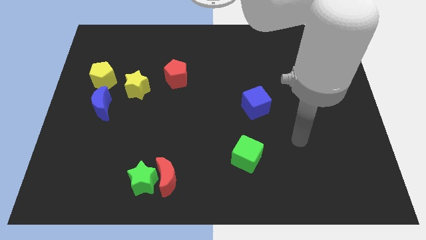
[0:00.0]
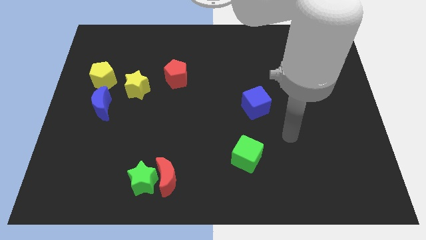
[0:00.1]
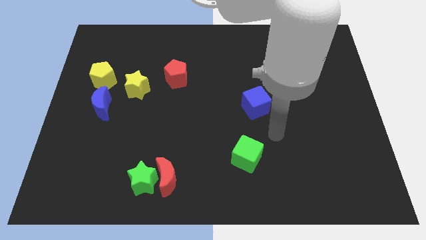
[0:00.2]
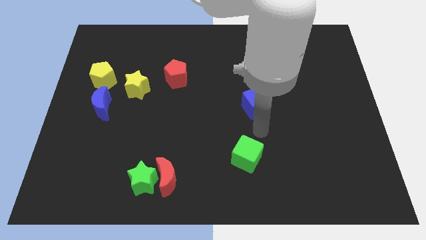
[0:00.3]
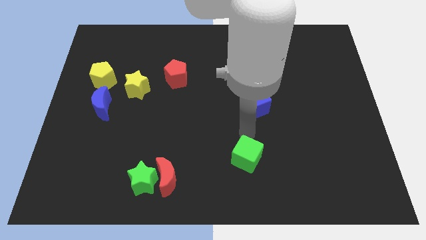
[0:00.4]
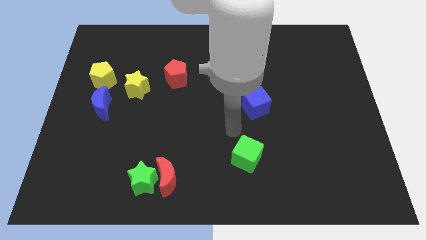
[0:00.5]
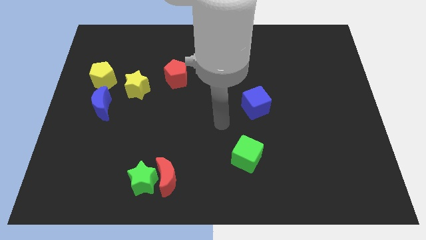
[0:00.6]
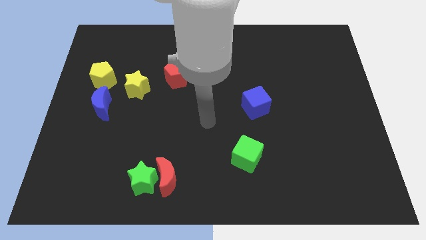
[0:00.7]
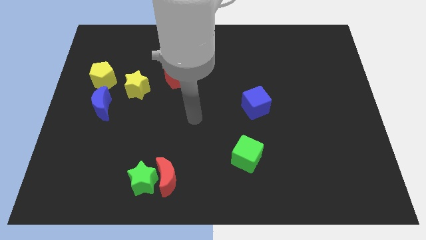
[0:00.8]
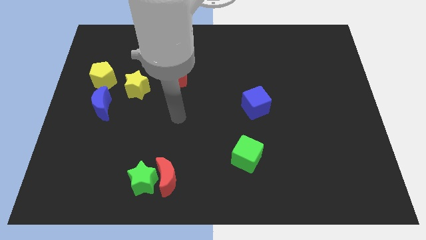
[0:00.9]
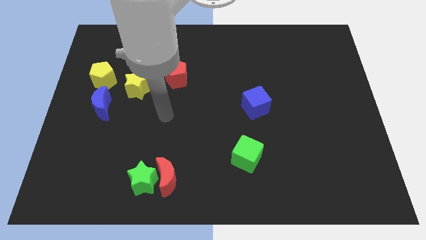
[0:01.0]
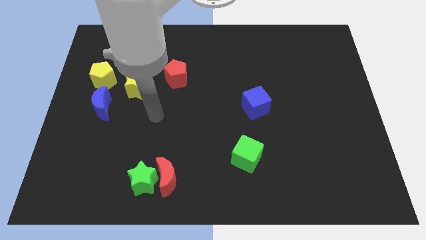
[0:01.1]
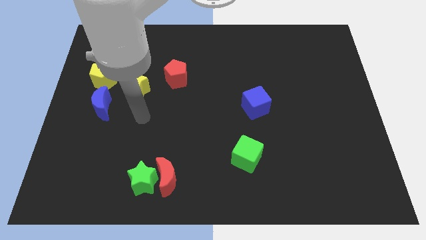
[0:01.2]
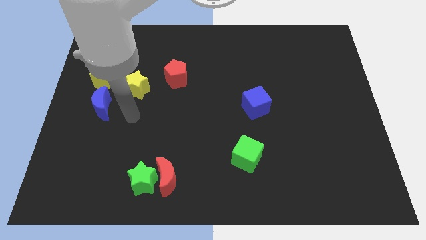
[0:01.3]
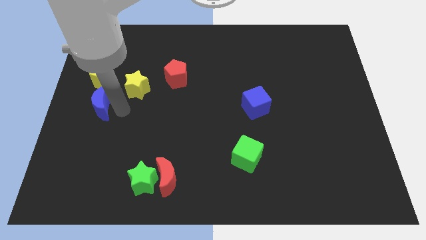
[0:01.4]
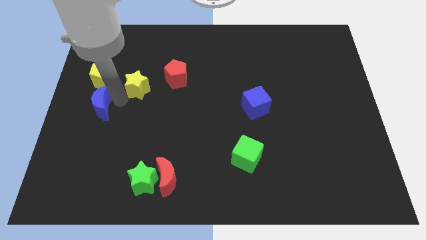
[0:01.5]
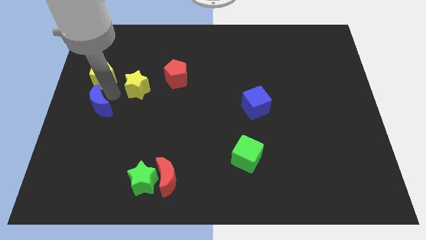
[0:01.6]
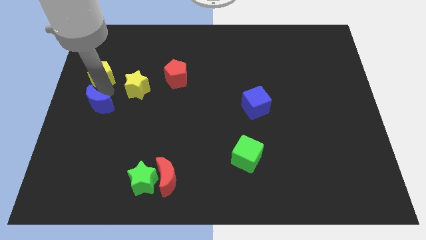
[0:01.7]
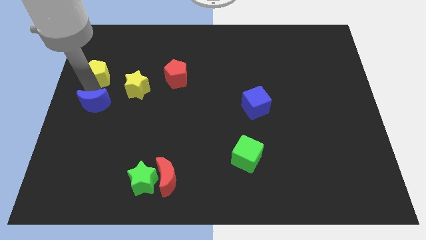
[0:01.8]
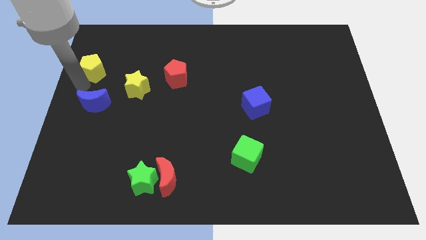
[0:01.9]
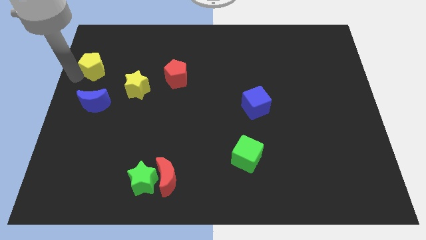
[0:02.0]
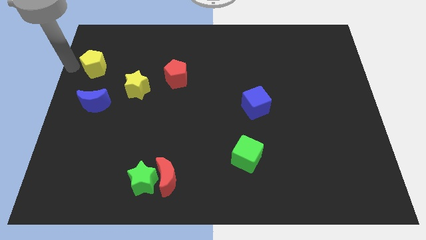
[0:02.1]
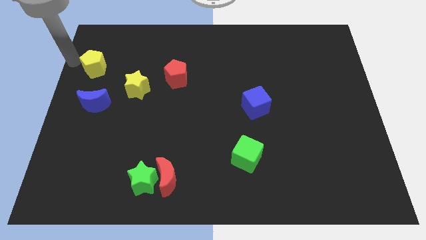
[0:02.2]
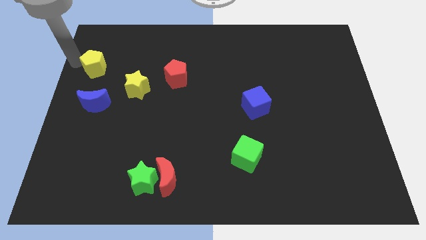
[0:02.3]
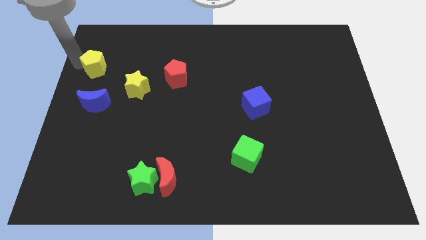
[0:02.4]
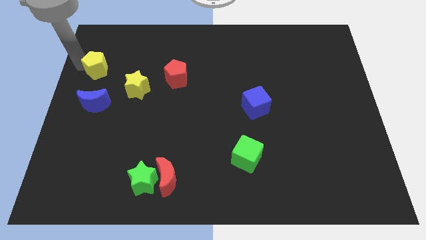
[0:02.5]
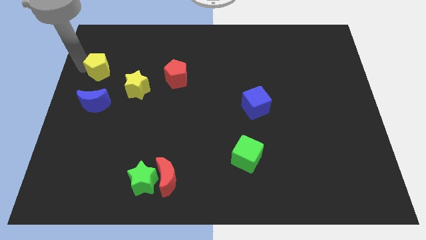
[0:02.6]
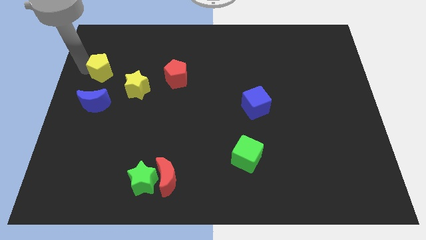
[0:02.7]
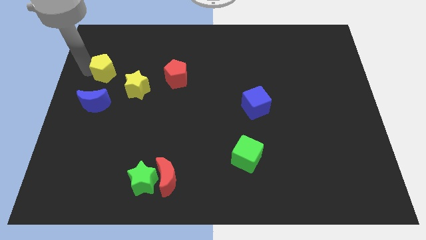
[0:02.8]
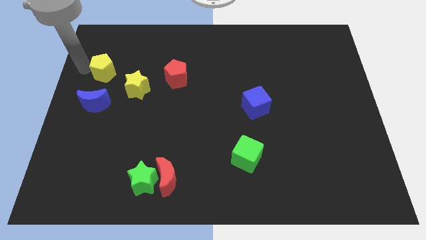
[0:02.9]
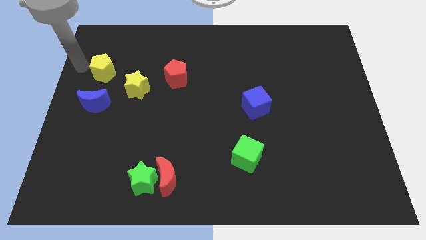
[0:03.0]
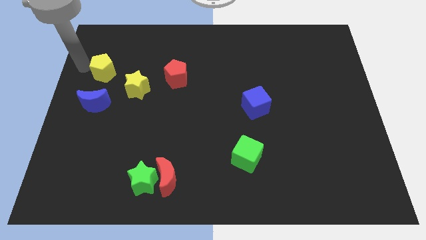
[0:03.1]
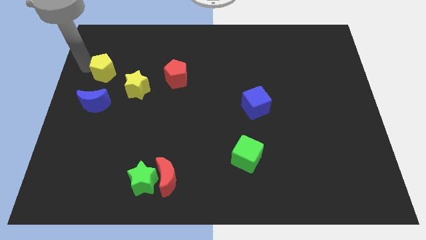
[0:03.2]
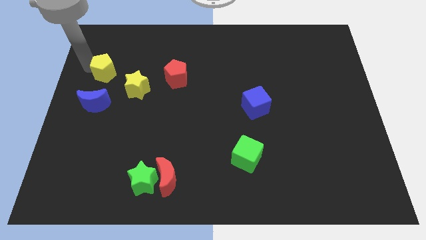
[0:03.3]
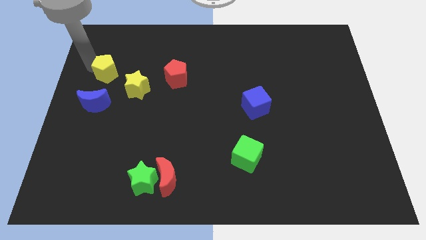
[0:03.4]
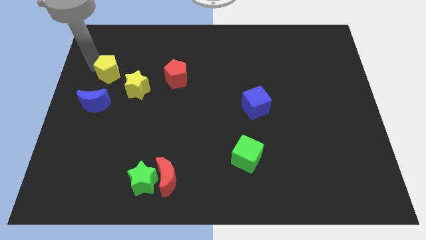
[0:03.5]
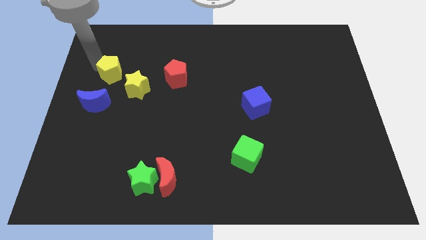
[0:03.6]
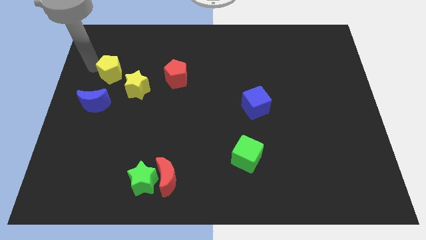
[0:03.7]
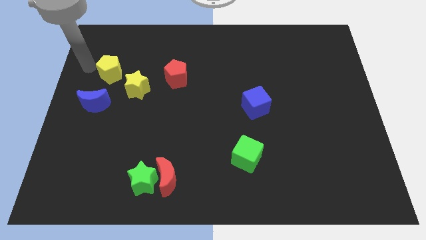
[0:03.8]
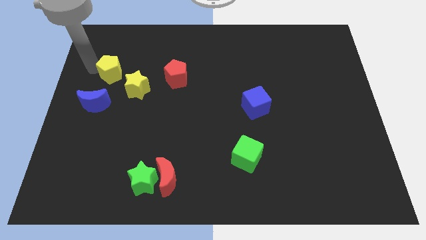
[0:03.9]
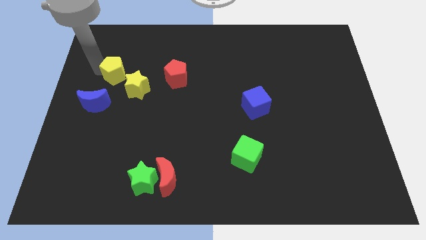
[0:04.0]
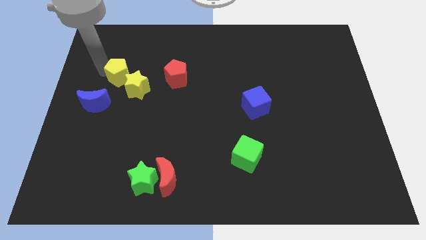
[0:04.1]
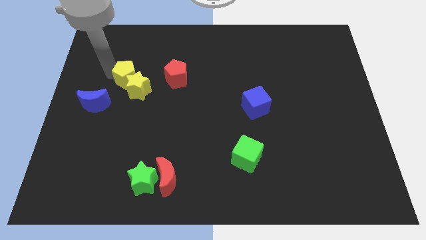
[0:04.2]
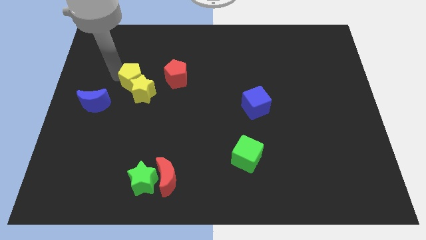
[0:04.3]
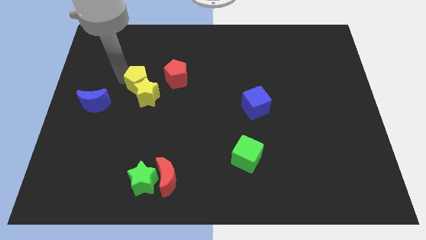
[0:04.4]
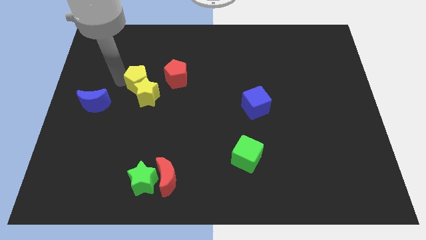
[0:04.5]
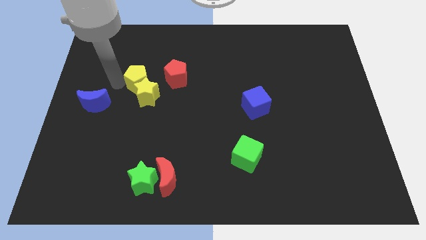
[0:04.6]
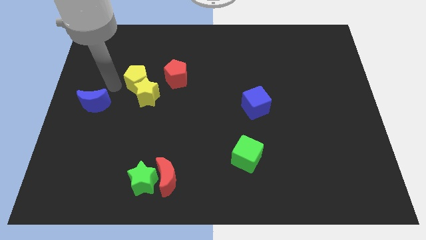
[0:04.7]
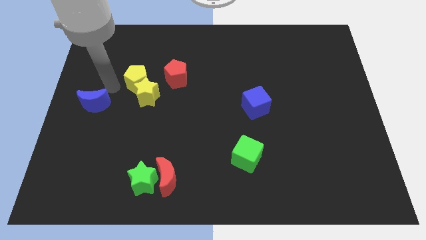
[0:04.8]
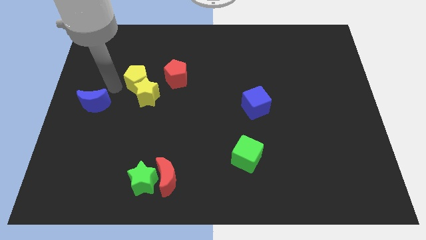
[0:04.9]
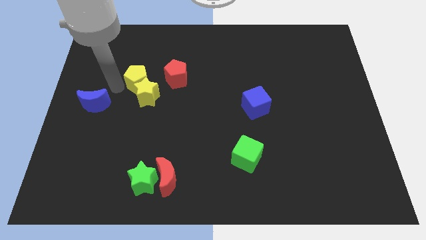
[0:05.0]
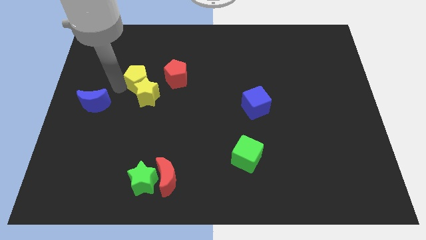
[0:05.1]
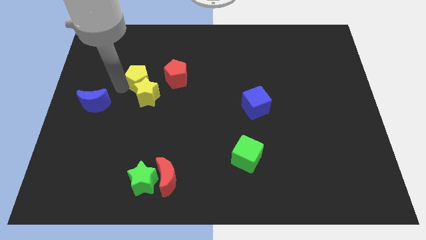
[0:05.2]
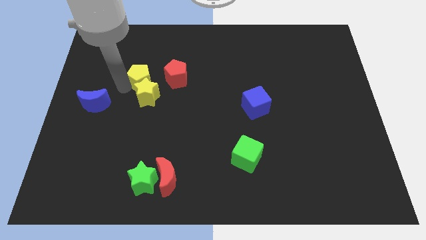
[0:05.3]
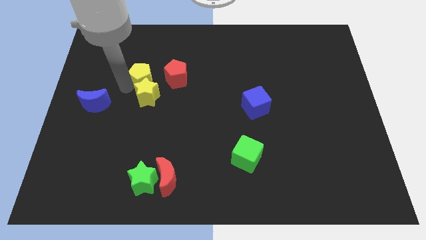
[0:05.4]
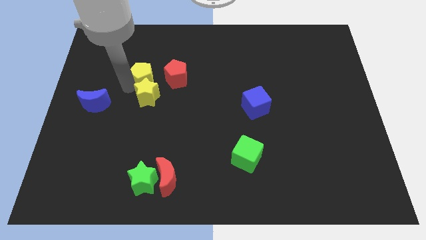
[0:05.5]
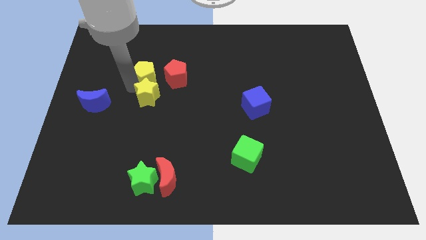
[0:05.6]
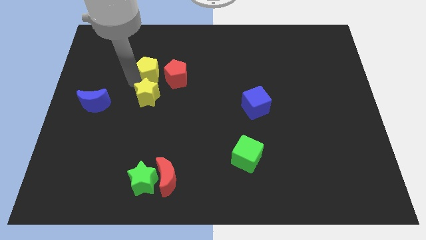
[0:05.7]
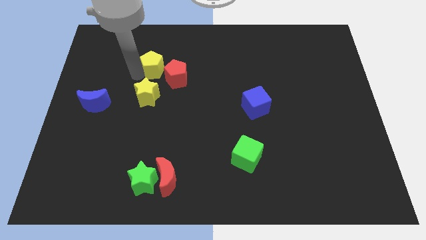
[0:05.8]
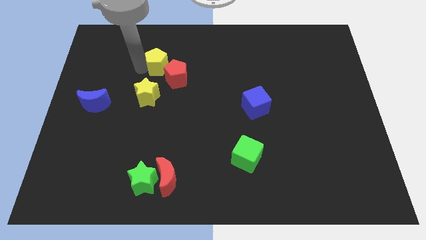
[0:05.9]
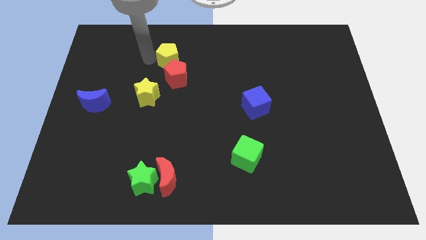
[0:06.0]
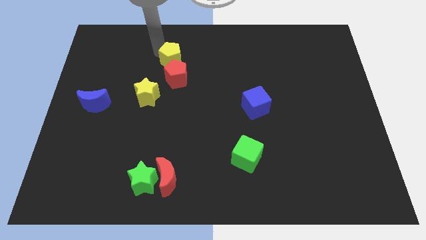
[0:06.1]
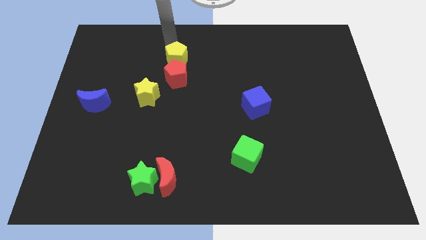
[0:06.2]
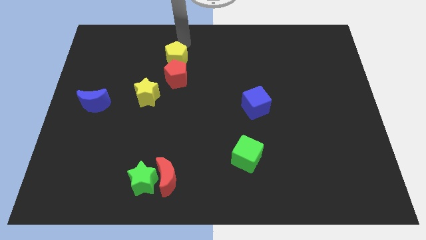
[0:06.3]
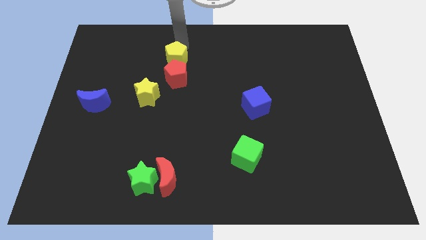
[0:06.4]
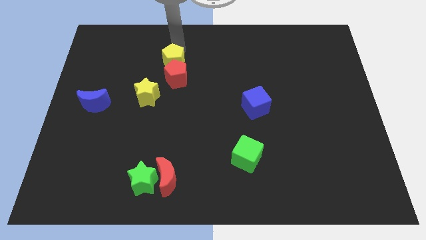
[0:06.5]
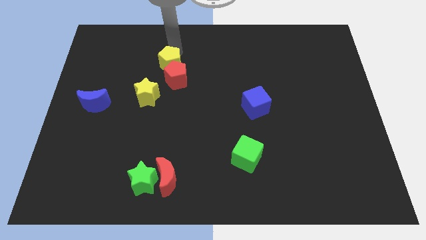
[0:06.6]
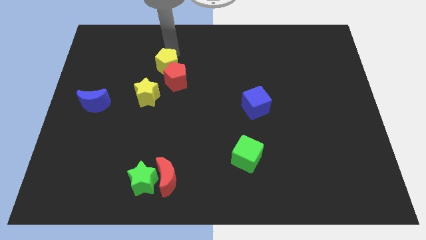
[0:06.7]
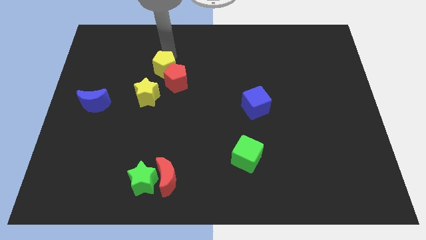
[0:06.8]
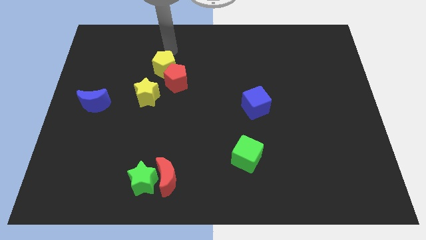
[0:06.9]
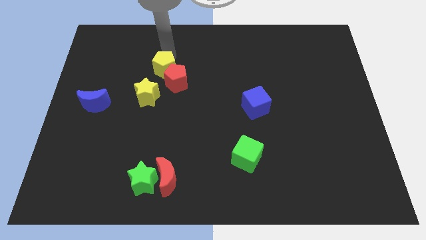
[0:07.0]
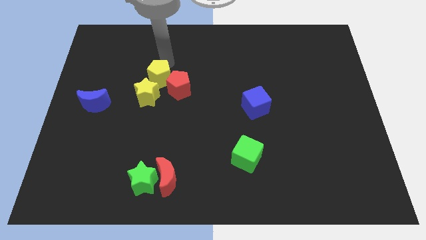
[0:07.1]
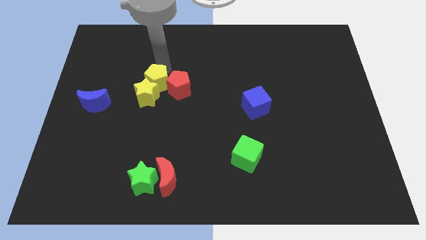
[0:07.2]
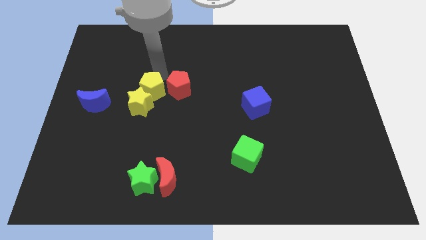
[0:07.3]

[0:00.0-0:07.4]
slide the yellow pentagon down and then to the right somewhat

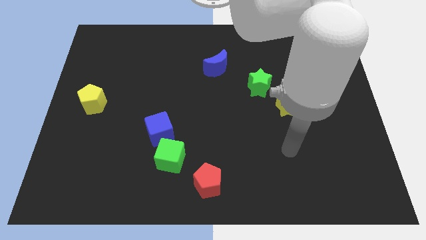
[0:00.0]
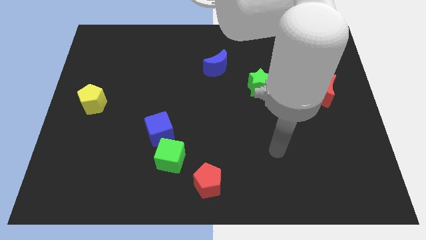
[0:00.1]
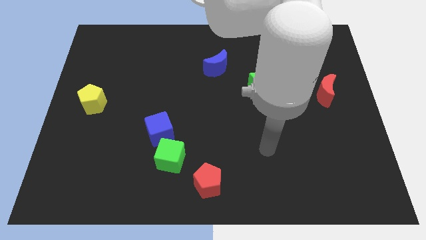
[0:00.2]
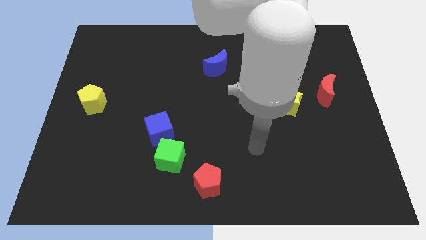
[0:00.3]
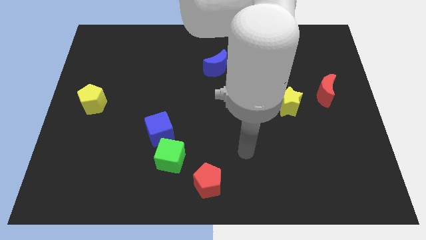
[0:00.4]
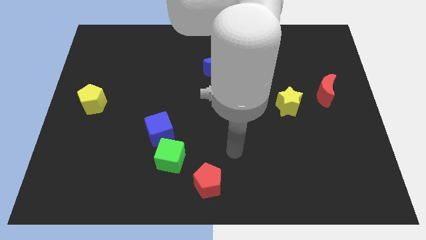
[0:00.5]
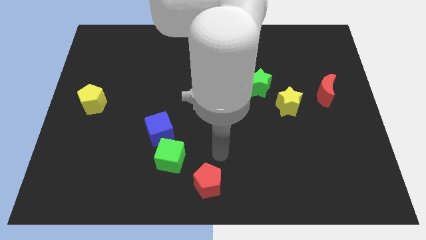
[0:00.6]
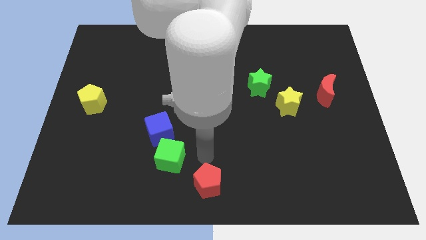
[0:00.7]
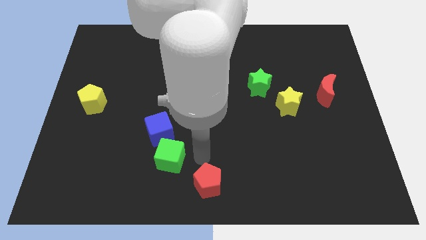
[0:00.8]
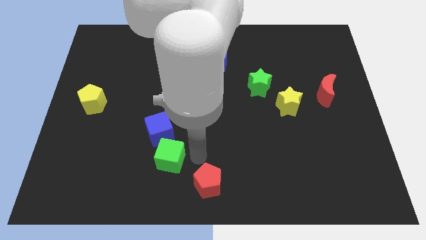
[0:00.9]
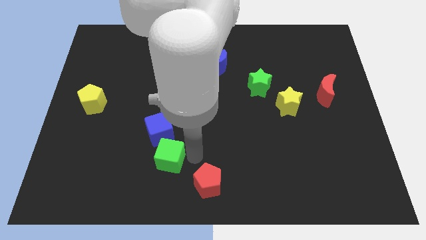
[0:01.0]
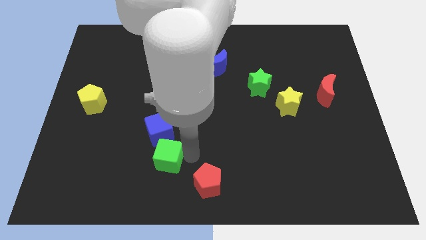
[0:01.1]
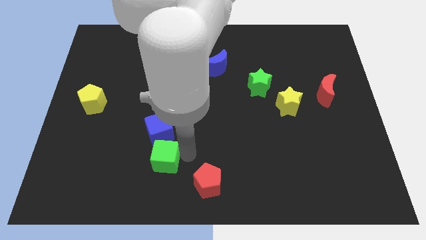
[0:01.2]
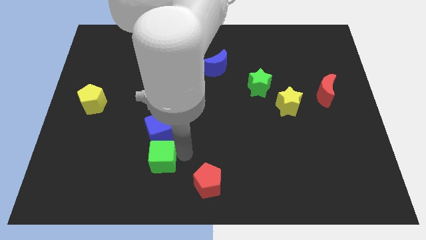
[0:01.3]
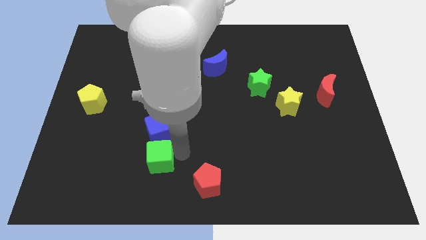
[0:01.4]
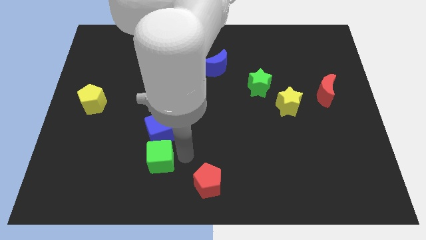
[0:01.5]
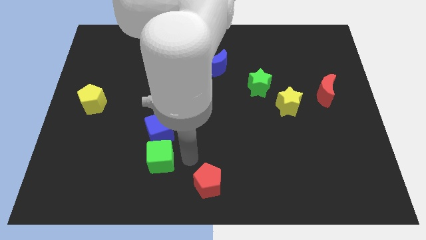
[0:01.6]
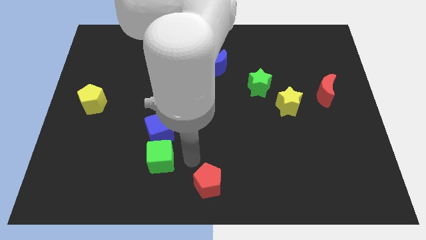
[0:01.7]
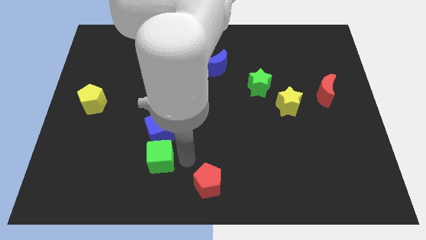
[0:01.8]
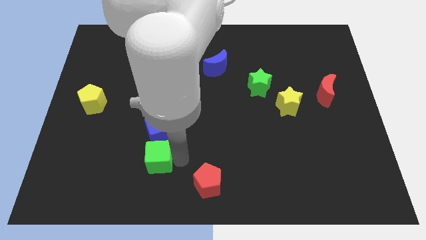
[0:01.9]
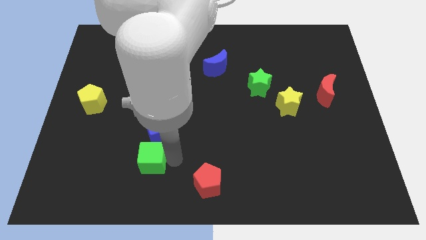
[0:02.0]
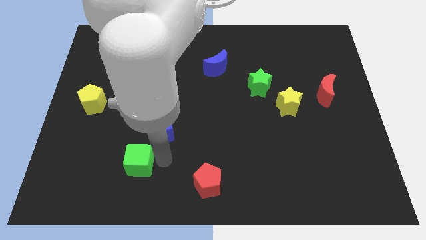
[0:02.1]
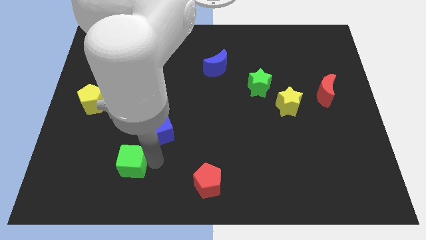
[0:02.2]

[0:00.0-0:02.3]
slightly slide the green cube to the left
